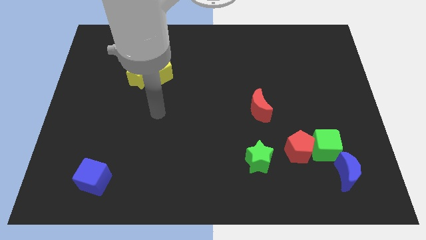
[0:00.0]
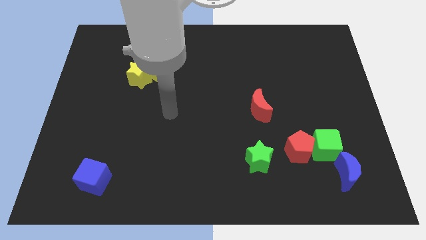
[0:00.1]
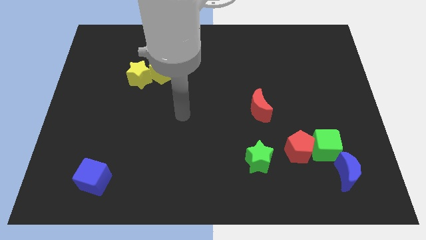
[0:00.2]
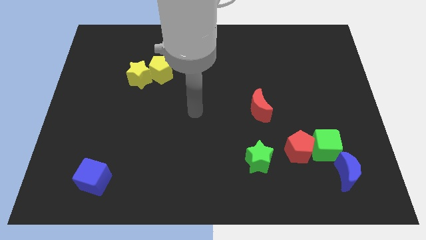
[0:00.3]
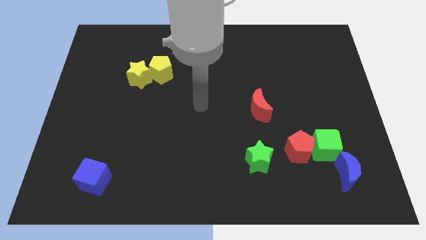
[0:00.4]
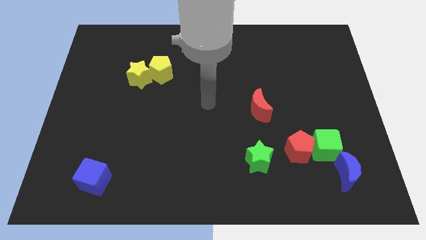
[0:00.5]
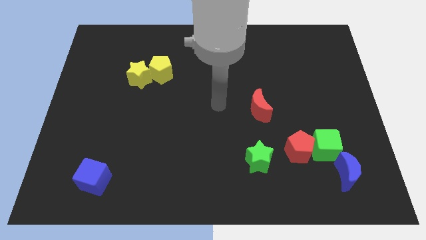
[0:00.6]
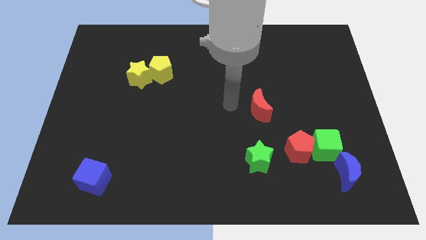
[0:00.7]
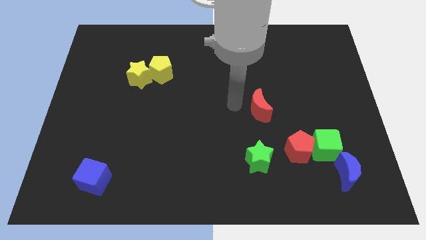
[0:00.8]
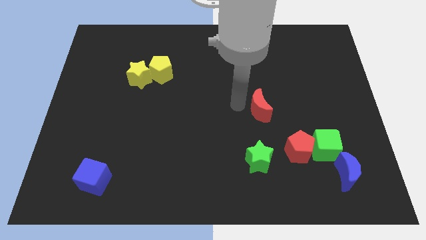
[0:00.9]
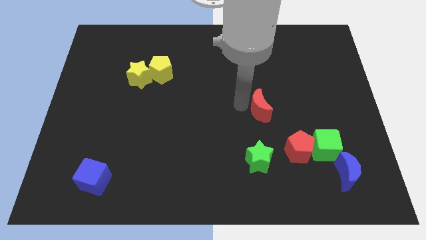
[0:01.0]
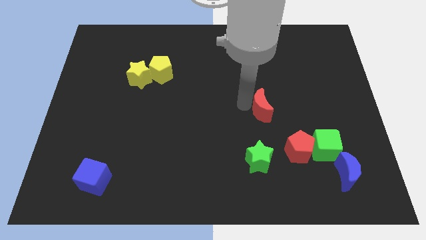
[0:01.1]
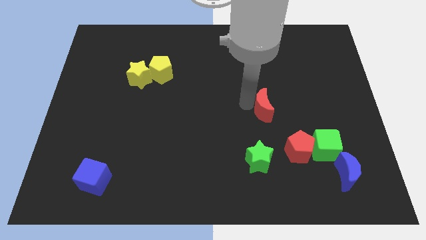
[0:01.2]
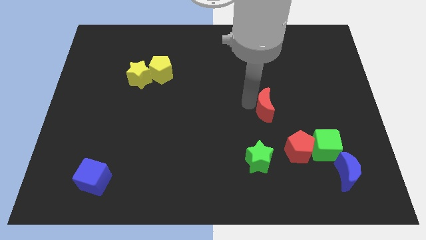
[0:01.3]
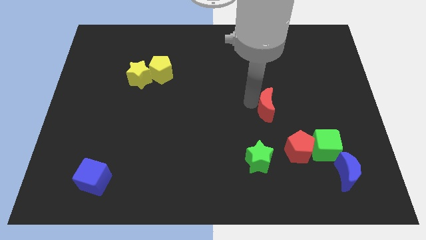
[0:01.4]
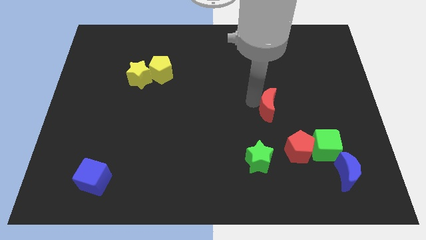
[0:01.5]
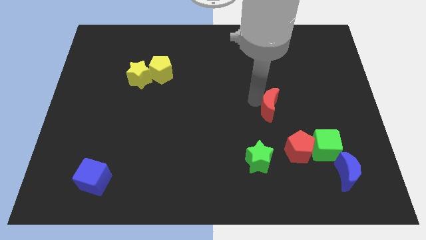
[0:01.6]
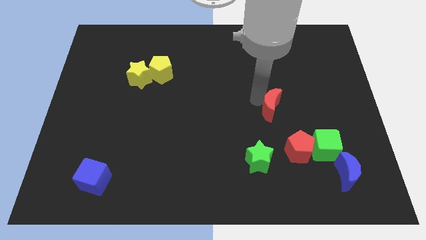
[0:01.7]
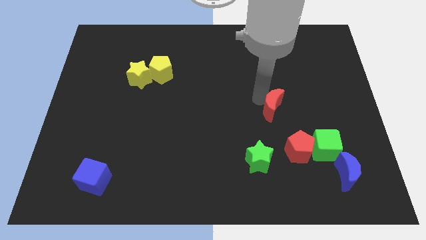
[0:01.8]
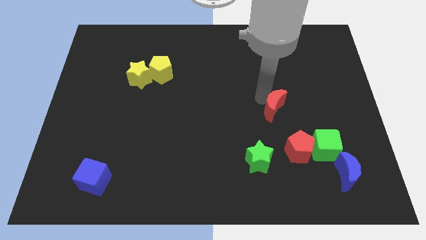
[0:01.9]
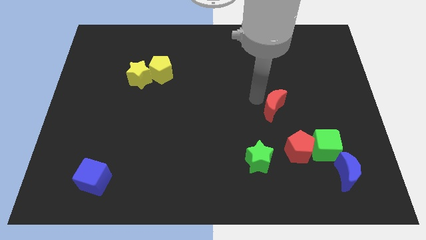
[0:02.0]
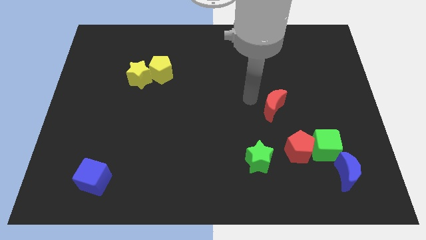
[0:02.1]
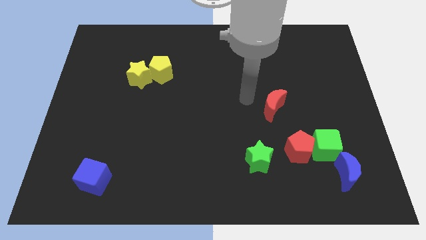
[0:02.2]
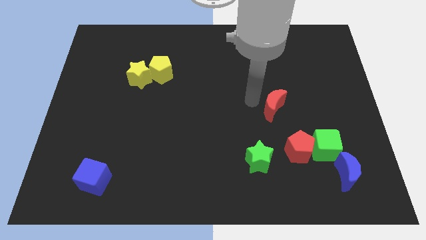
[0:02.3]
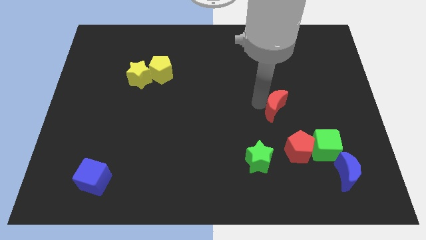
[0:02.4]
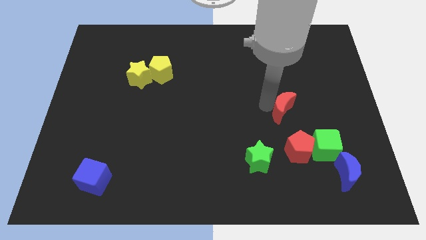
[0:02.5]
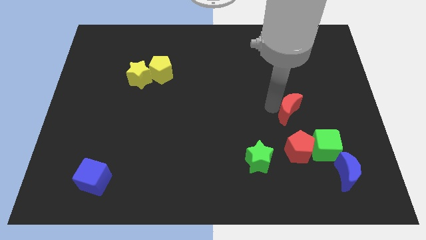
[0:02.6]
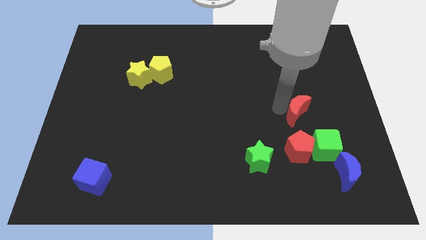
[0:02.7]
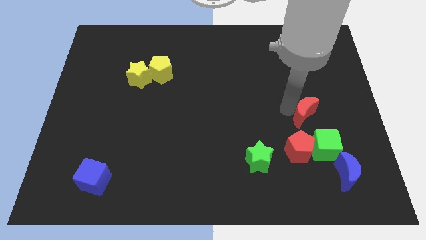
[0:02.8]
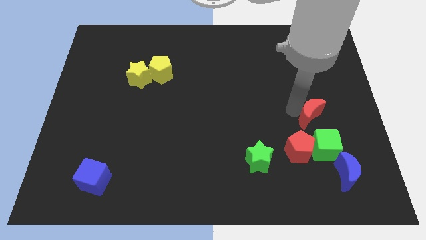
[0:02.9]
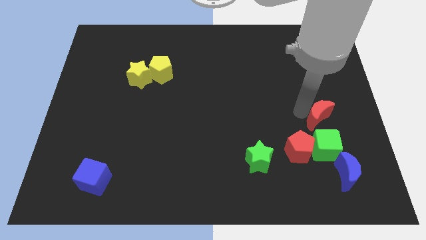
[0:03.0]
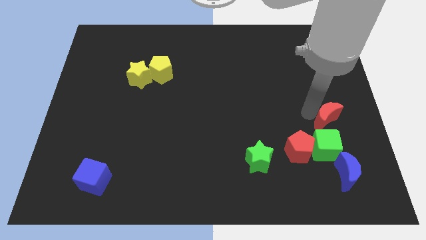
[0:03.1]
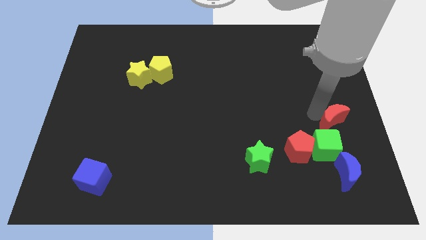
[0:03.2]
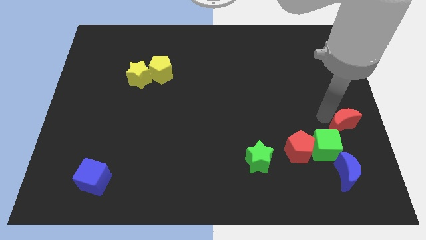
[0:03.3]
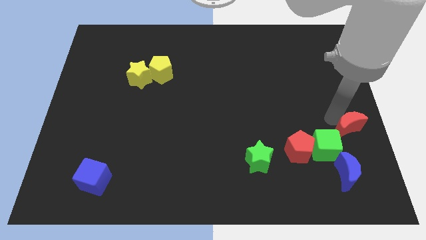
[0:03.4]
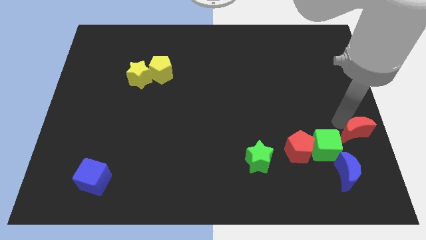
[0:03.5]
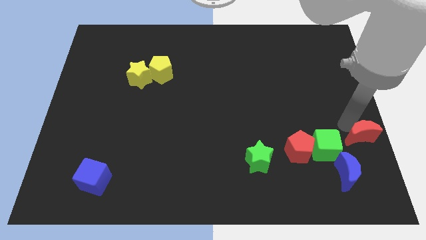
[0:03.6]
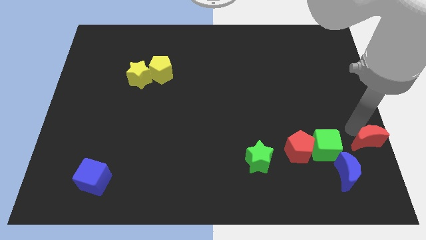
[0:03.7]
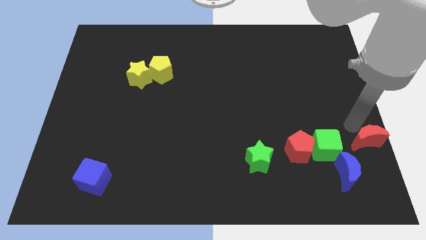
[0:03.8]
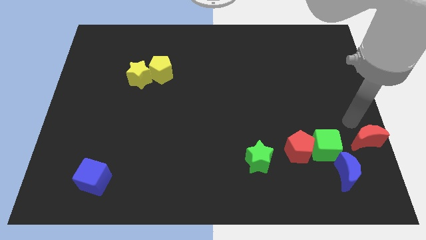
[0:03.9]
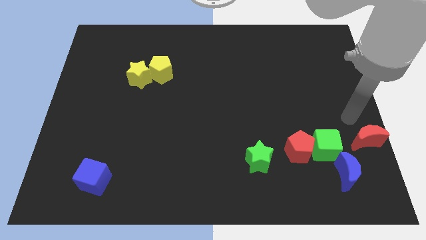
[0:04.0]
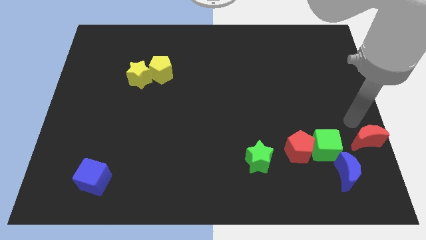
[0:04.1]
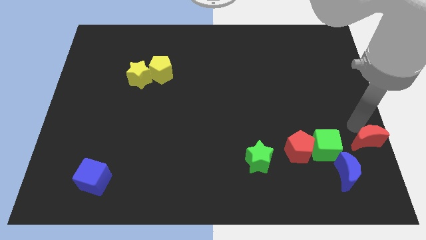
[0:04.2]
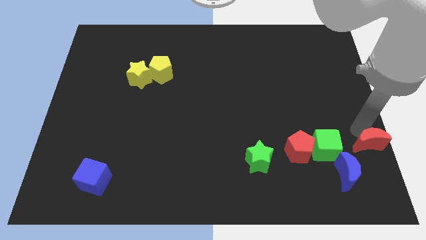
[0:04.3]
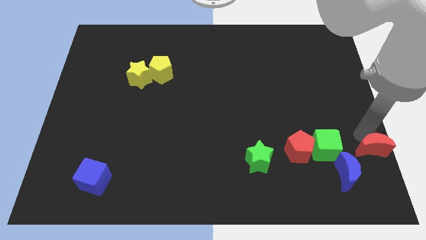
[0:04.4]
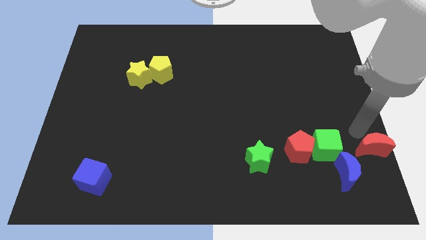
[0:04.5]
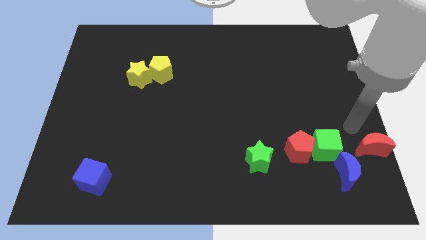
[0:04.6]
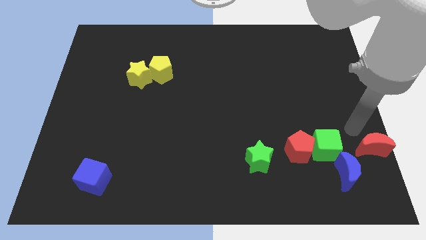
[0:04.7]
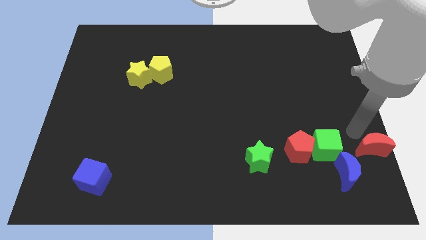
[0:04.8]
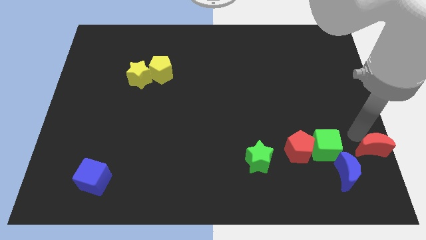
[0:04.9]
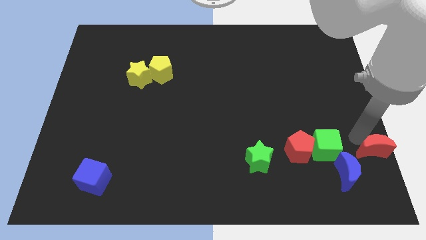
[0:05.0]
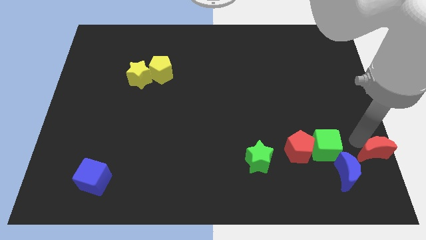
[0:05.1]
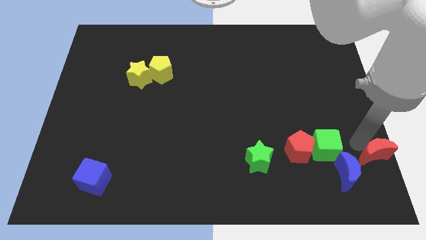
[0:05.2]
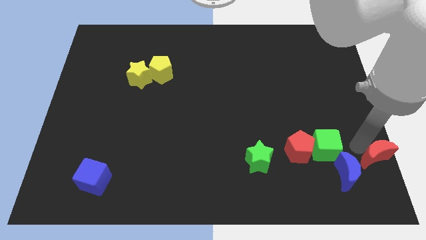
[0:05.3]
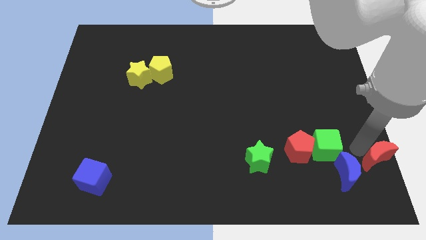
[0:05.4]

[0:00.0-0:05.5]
move the red moon to the bottom right corner

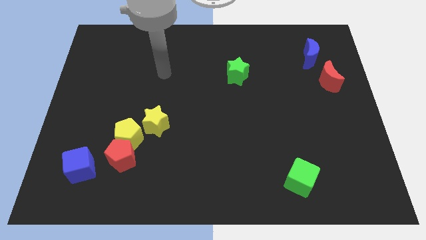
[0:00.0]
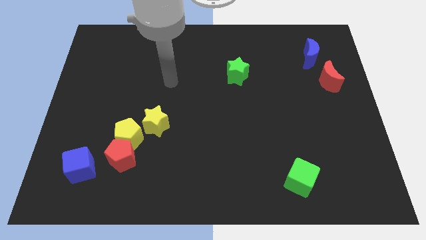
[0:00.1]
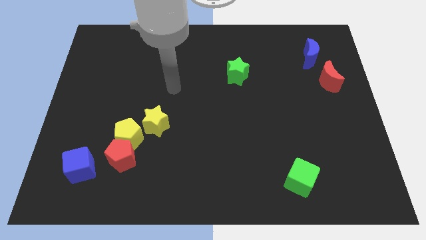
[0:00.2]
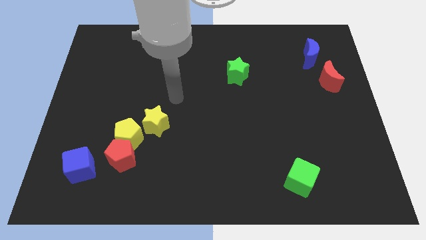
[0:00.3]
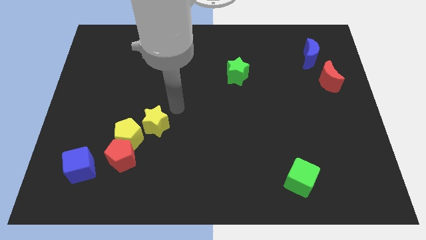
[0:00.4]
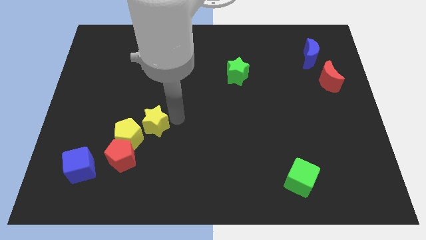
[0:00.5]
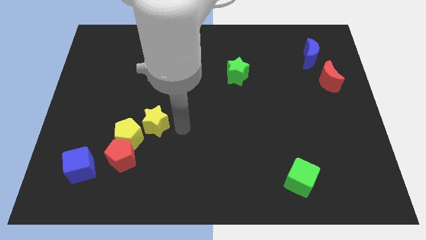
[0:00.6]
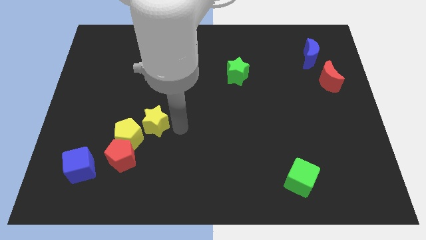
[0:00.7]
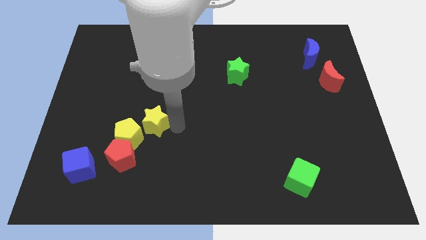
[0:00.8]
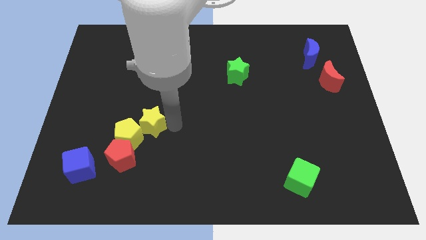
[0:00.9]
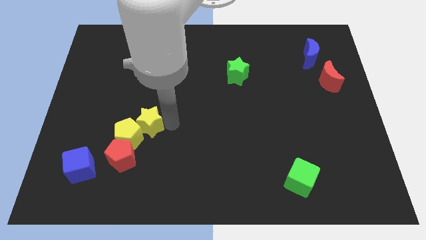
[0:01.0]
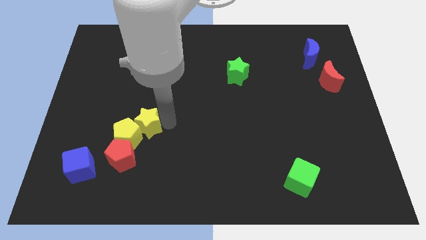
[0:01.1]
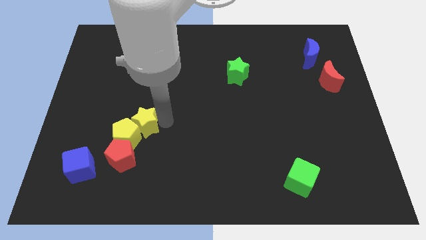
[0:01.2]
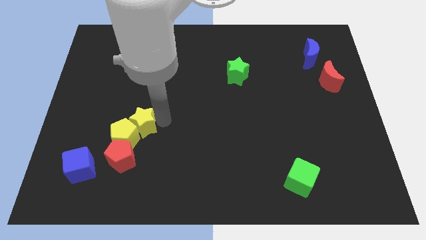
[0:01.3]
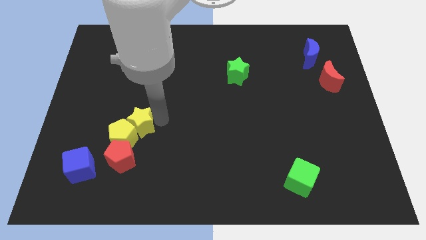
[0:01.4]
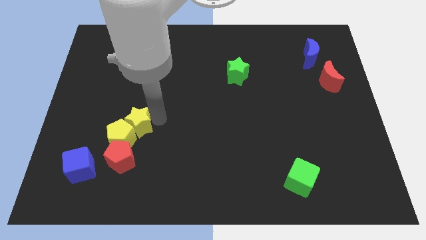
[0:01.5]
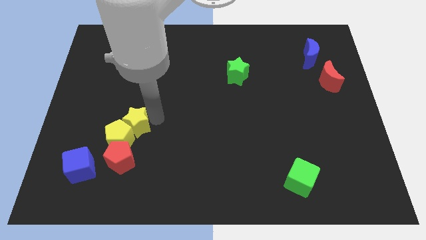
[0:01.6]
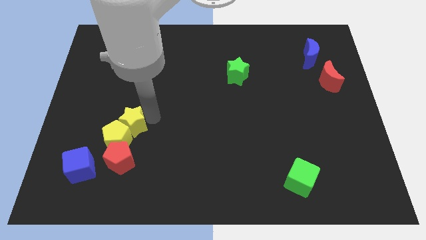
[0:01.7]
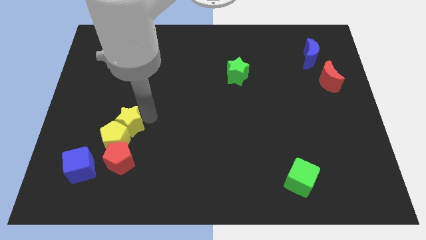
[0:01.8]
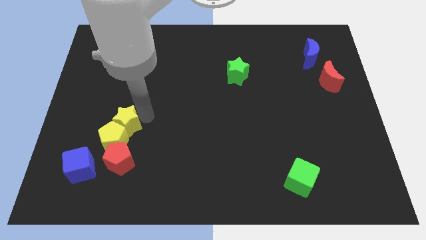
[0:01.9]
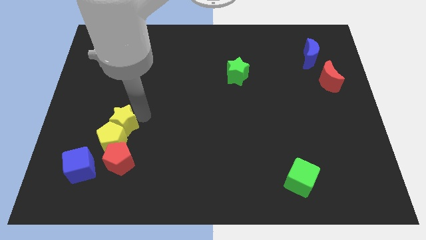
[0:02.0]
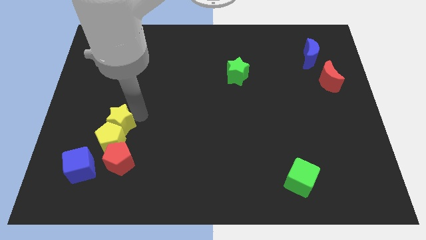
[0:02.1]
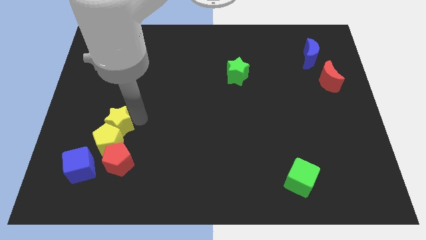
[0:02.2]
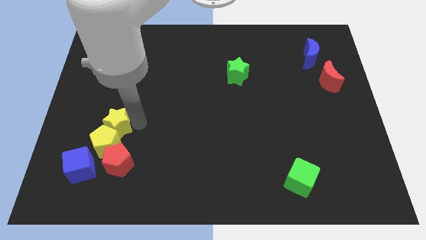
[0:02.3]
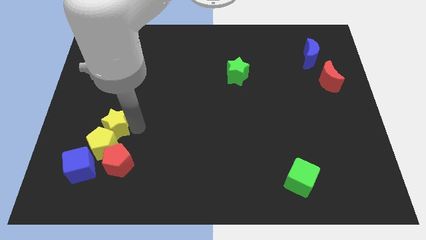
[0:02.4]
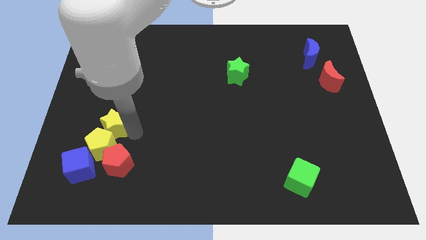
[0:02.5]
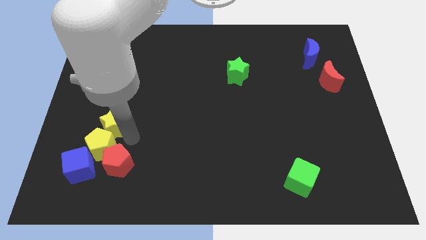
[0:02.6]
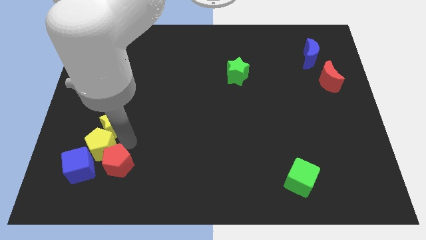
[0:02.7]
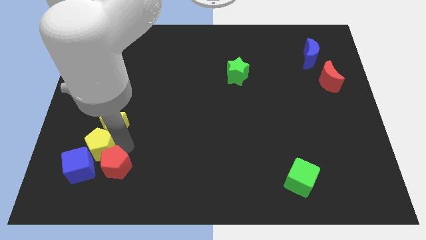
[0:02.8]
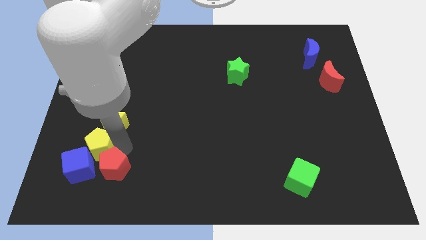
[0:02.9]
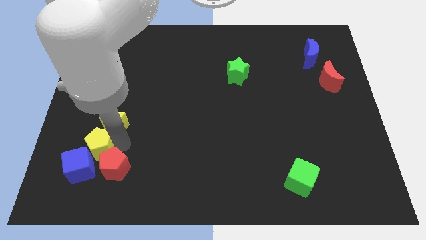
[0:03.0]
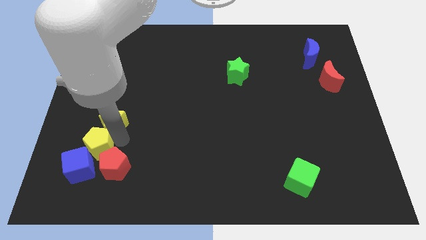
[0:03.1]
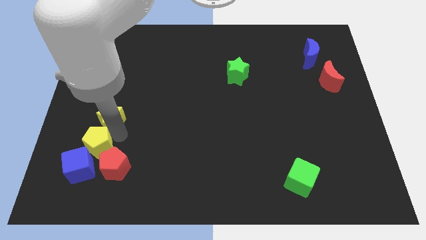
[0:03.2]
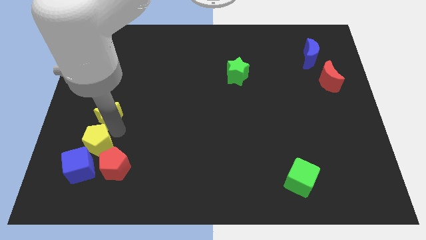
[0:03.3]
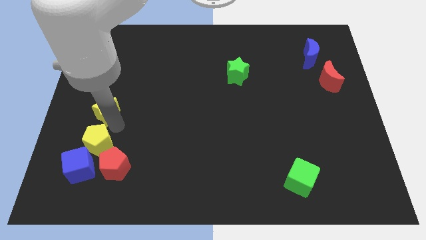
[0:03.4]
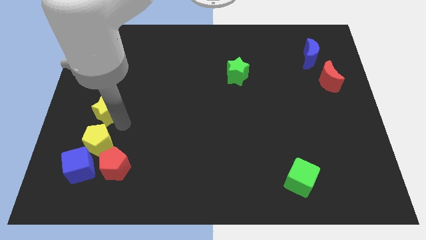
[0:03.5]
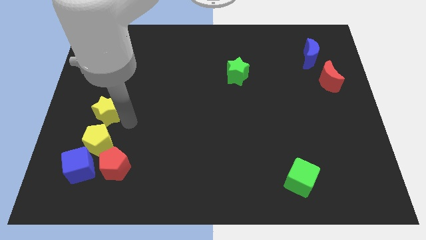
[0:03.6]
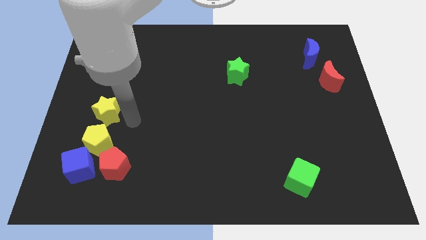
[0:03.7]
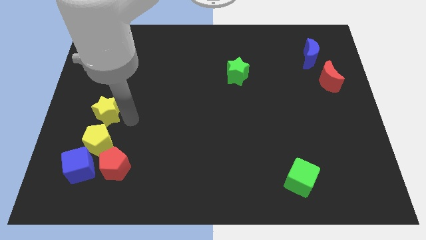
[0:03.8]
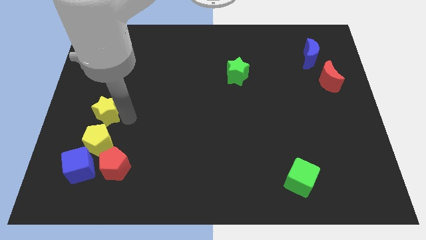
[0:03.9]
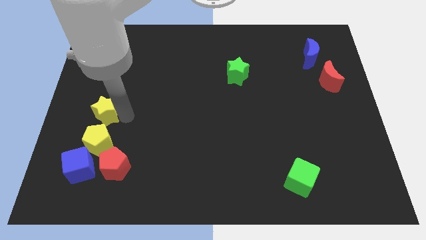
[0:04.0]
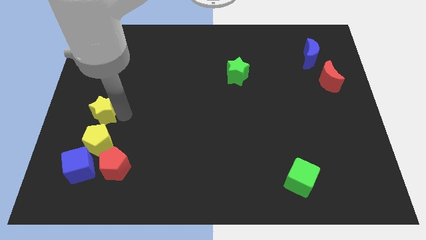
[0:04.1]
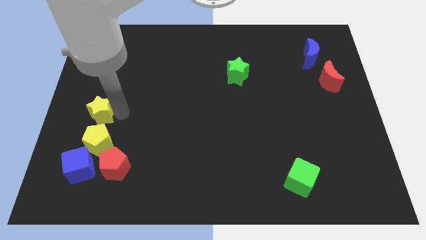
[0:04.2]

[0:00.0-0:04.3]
put the yellow star to the left side
